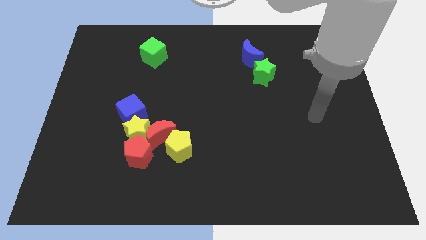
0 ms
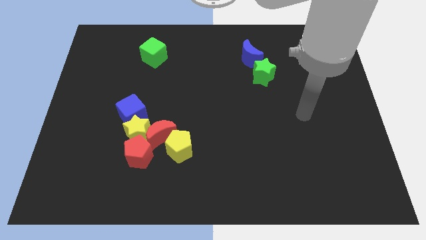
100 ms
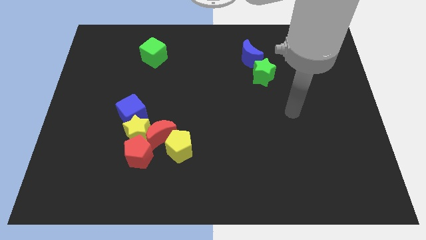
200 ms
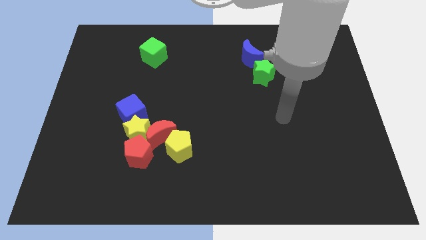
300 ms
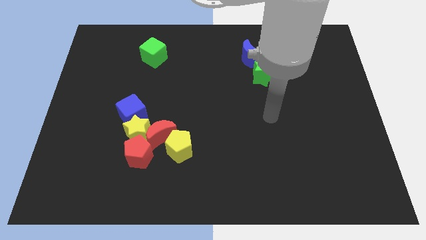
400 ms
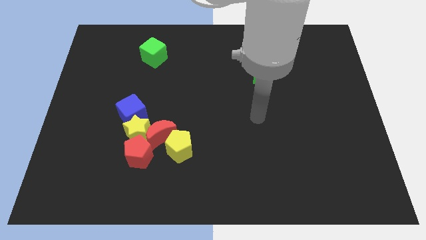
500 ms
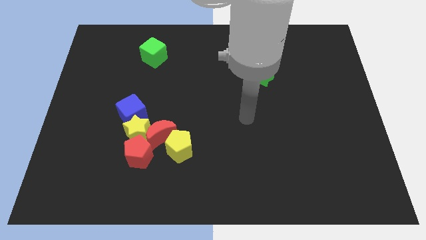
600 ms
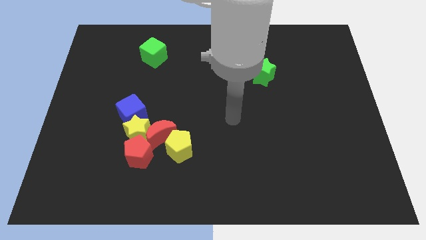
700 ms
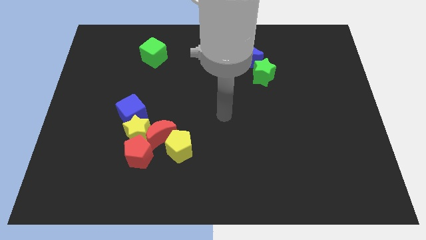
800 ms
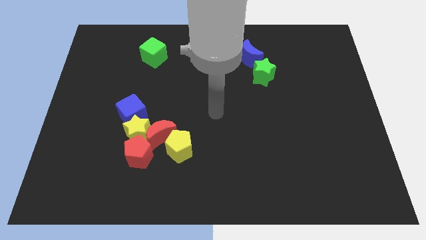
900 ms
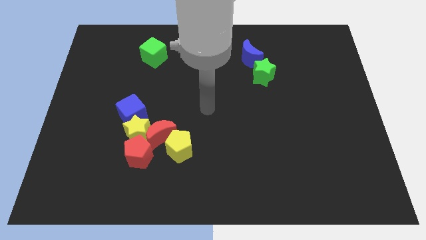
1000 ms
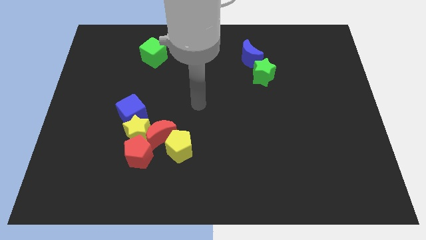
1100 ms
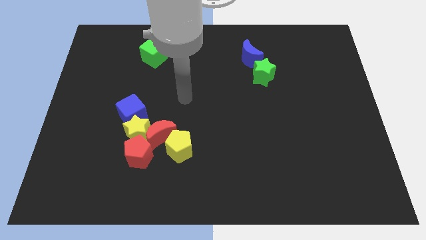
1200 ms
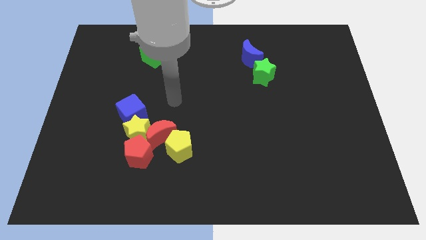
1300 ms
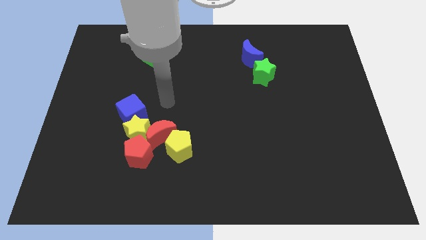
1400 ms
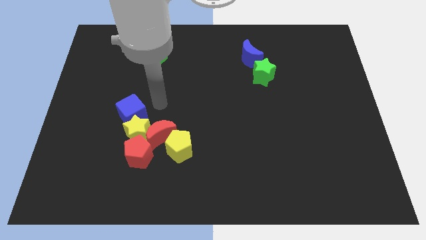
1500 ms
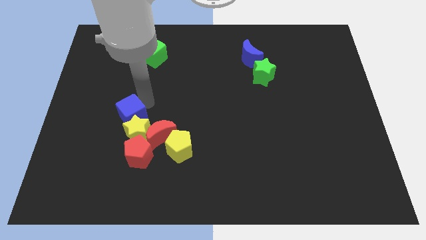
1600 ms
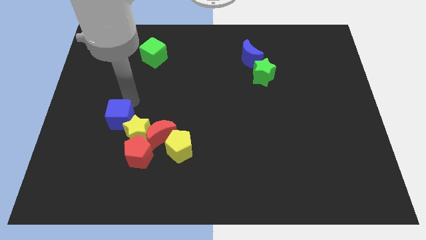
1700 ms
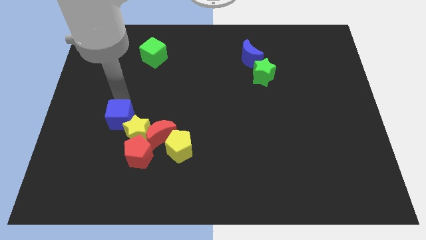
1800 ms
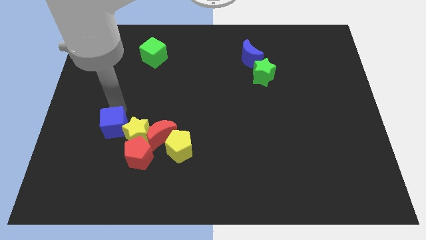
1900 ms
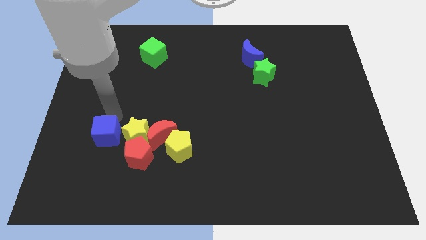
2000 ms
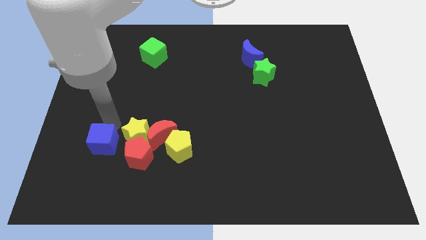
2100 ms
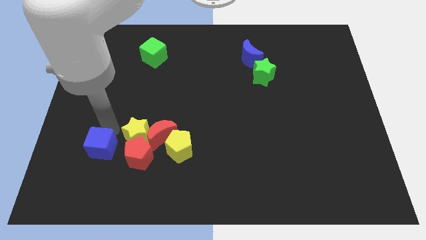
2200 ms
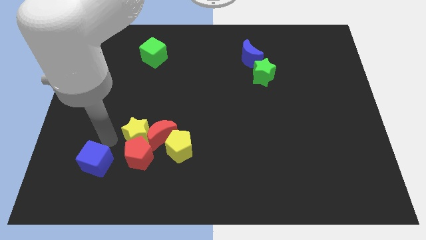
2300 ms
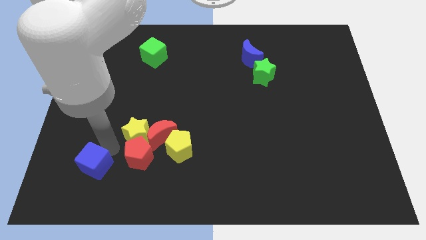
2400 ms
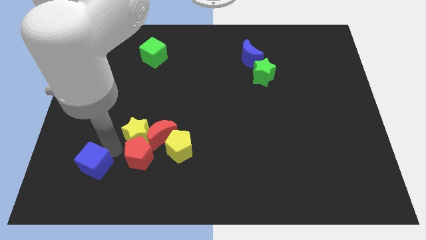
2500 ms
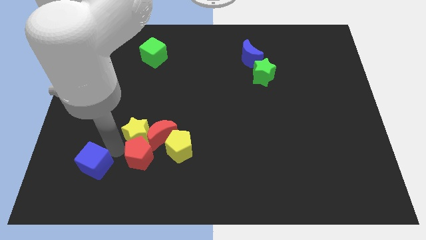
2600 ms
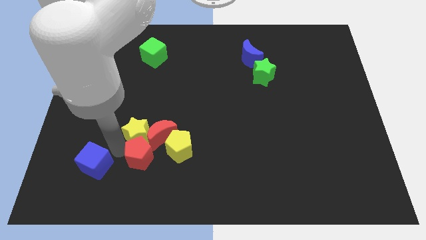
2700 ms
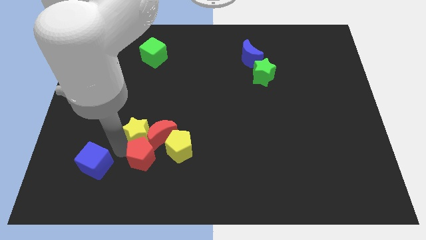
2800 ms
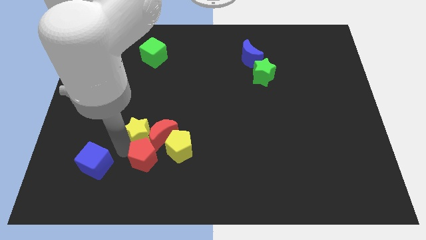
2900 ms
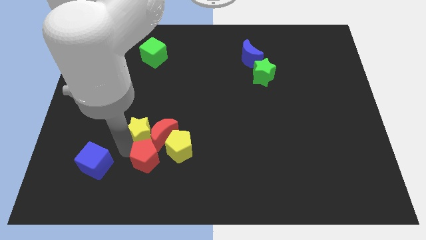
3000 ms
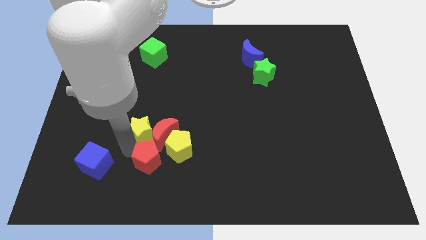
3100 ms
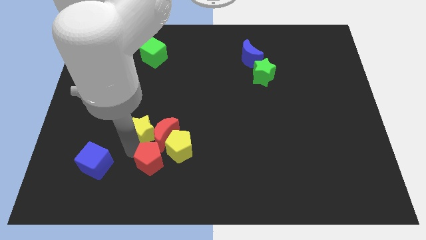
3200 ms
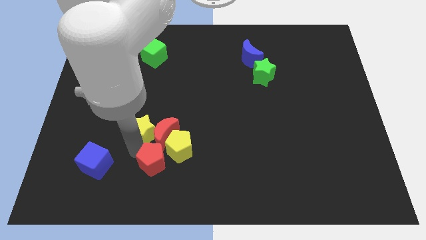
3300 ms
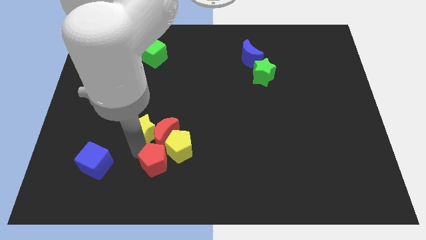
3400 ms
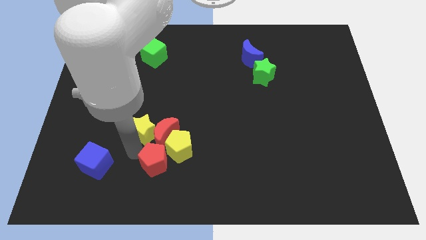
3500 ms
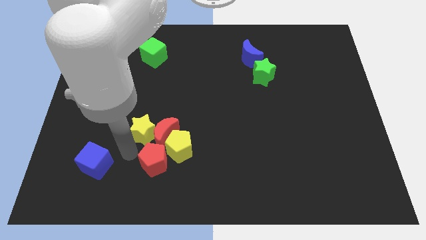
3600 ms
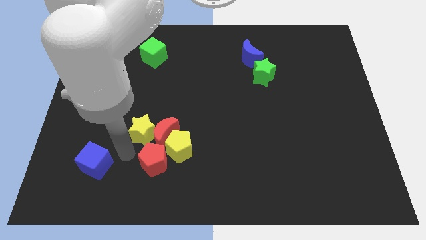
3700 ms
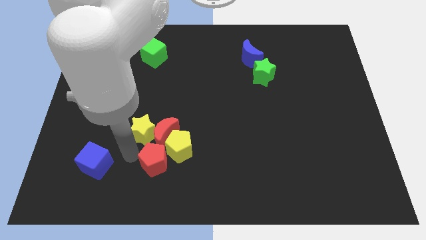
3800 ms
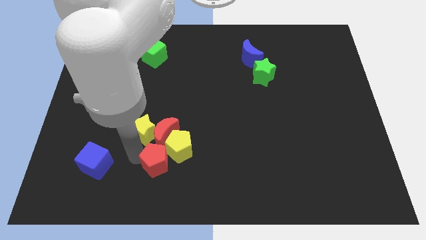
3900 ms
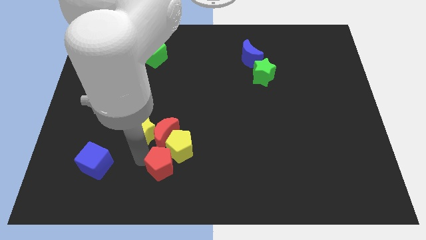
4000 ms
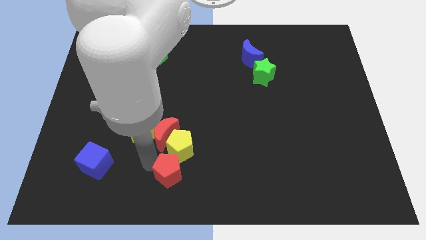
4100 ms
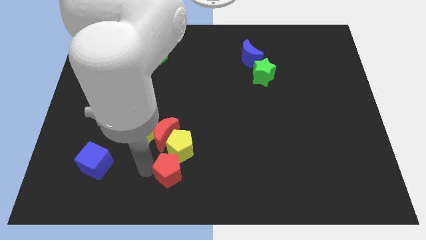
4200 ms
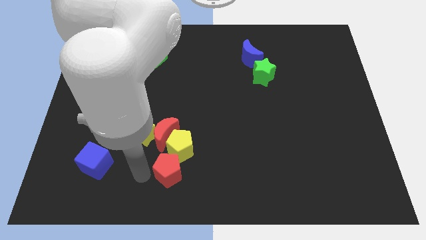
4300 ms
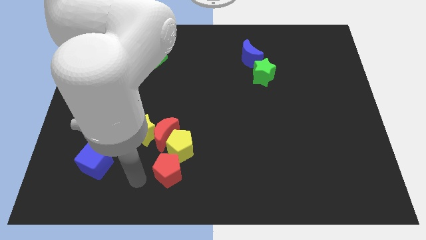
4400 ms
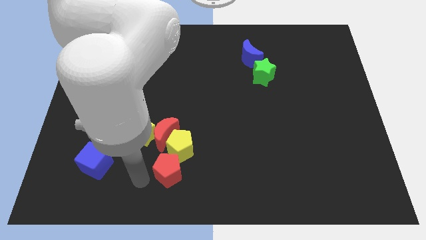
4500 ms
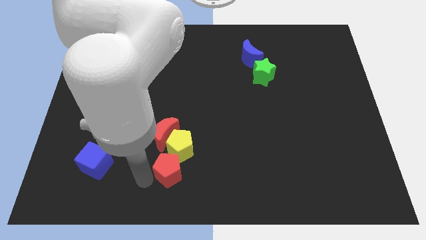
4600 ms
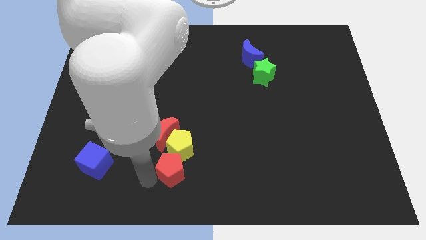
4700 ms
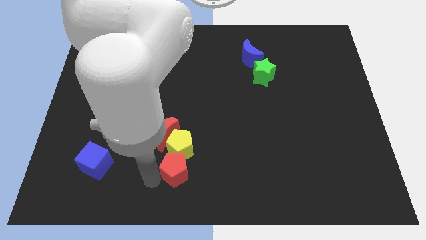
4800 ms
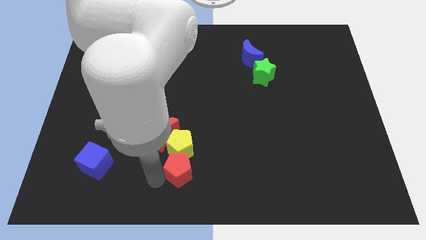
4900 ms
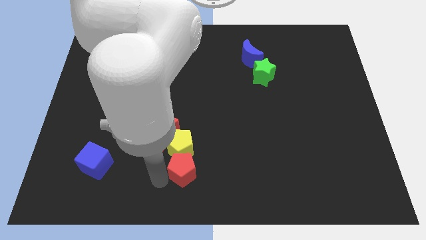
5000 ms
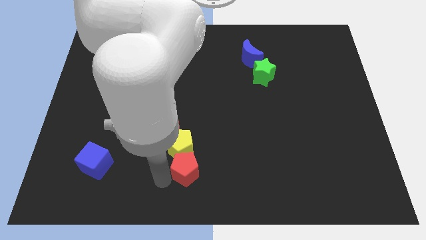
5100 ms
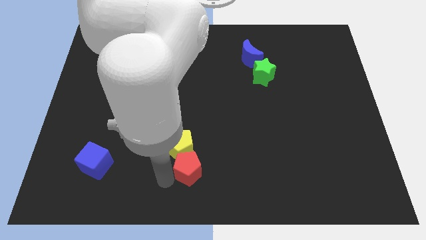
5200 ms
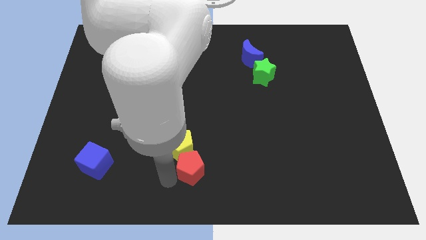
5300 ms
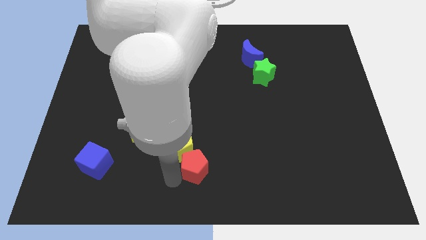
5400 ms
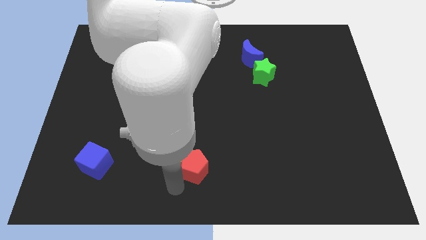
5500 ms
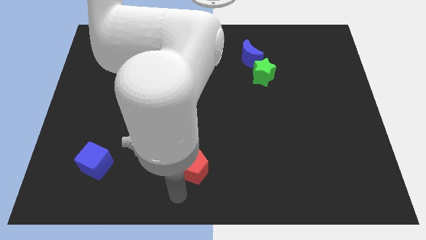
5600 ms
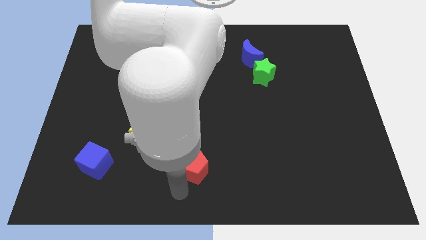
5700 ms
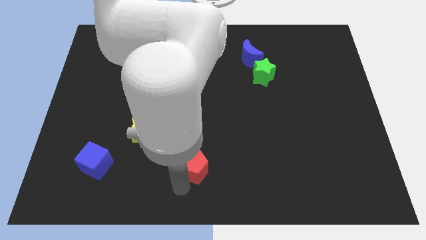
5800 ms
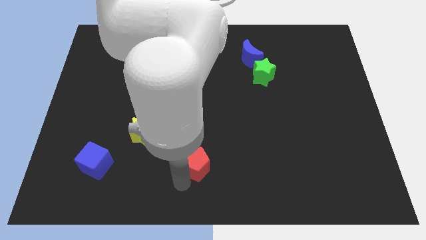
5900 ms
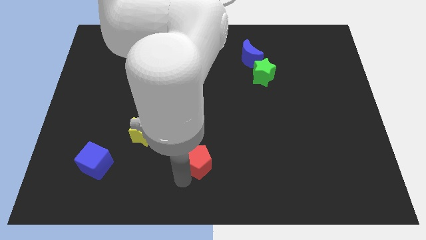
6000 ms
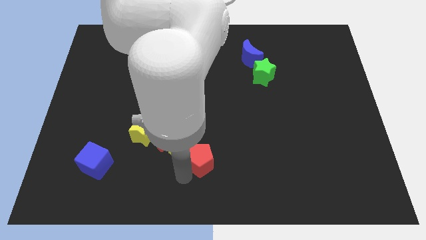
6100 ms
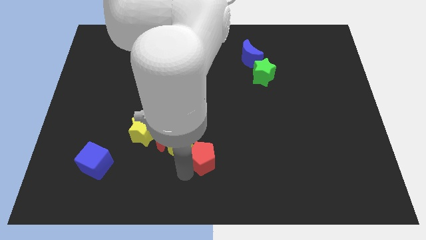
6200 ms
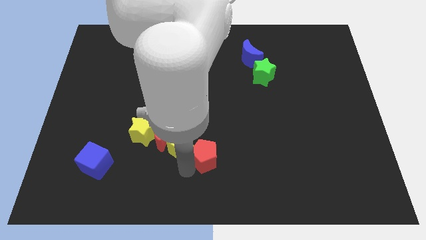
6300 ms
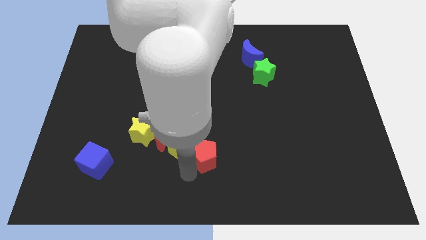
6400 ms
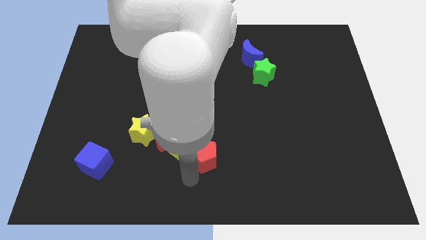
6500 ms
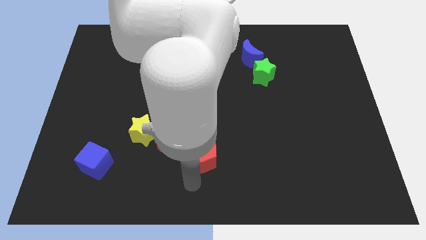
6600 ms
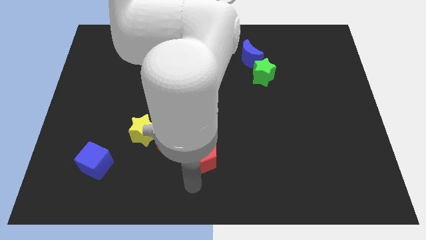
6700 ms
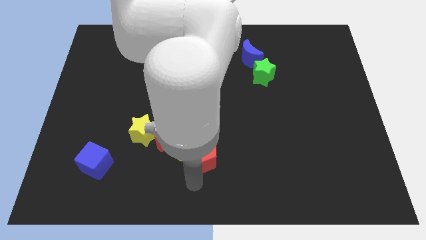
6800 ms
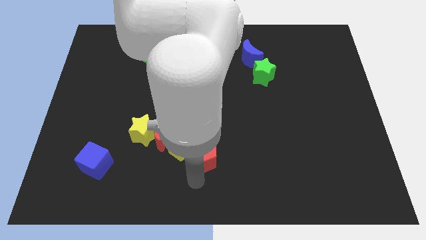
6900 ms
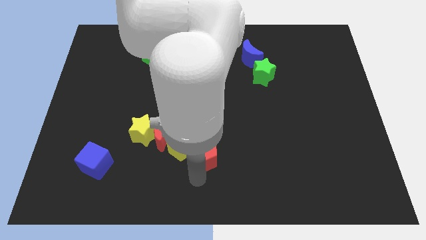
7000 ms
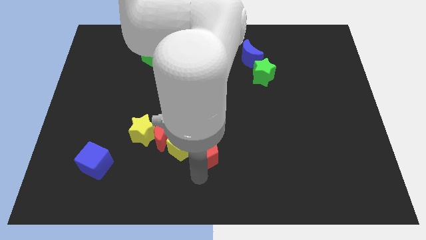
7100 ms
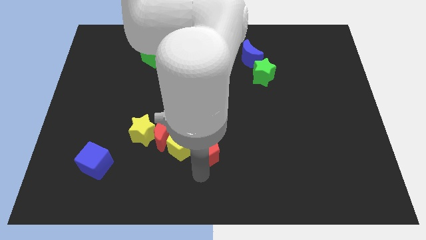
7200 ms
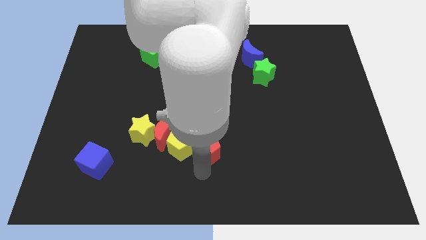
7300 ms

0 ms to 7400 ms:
slightly push the red pentagon upwards and to the right diagonally

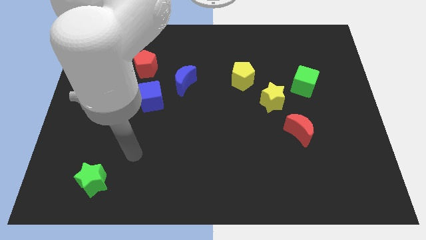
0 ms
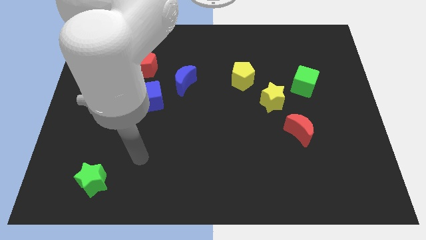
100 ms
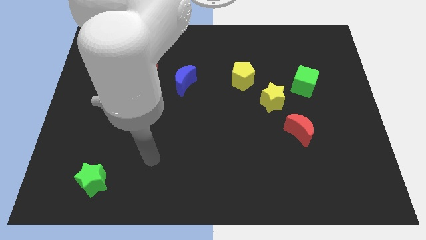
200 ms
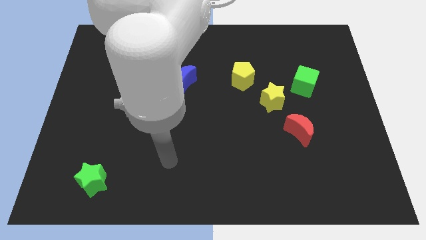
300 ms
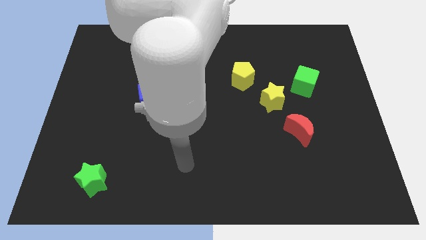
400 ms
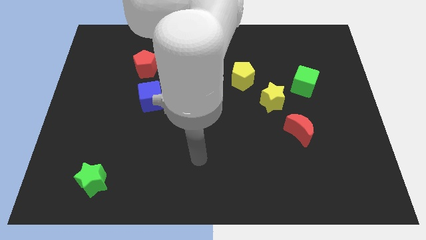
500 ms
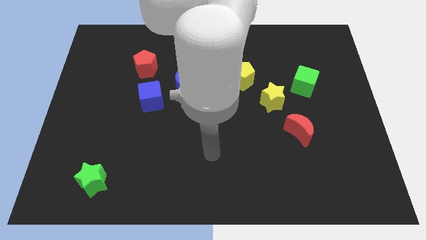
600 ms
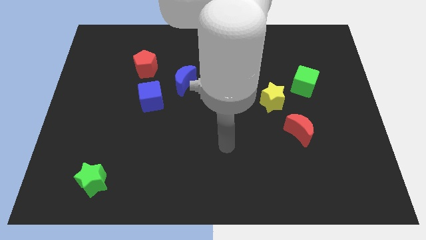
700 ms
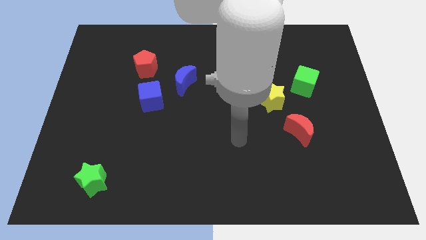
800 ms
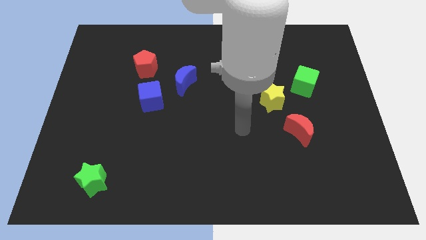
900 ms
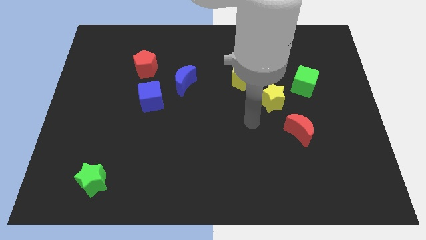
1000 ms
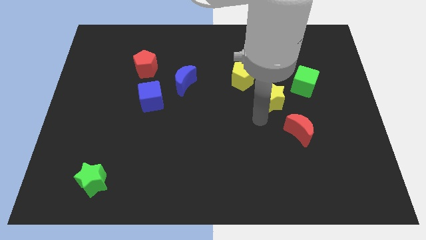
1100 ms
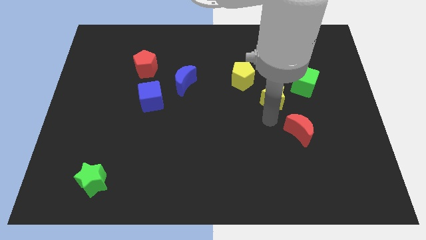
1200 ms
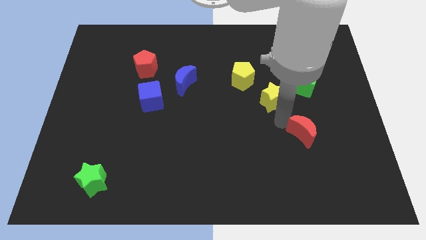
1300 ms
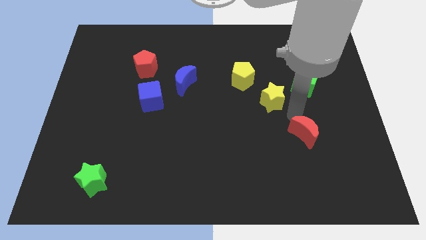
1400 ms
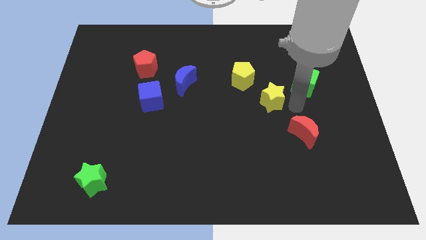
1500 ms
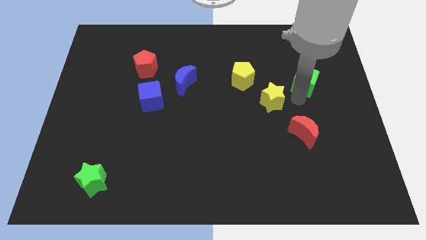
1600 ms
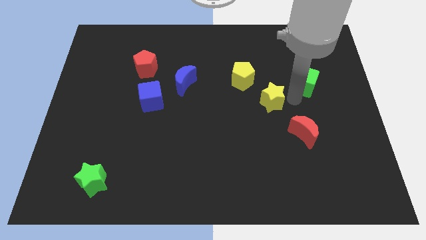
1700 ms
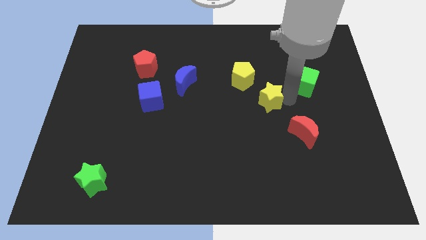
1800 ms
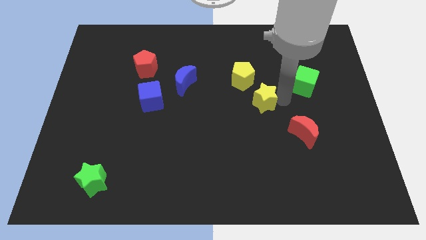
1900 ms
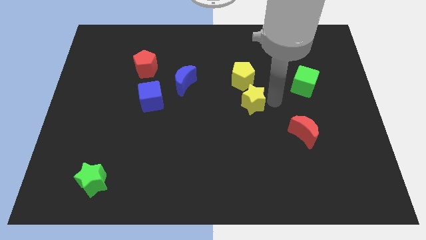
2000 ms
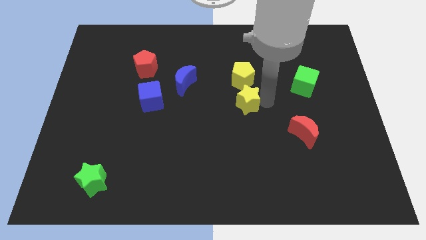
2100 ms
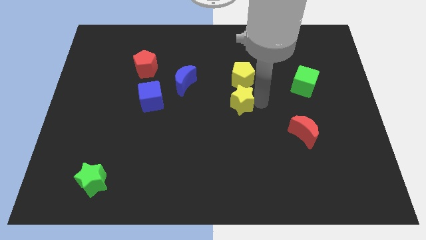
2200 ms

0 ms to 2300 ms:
push the yellow star to the left a little
